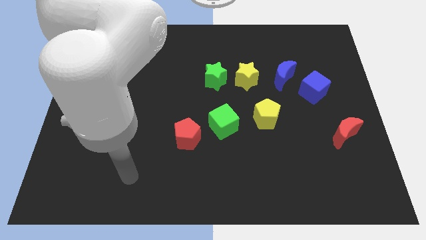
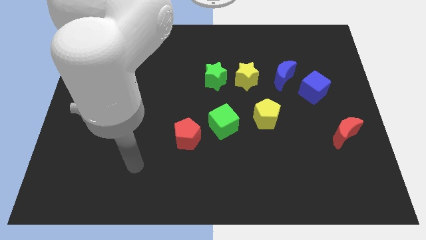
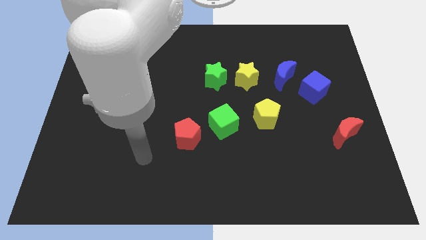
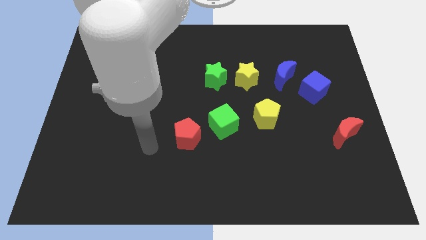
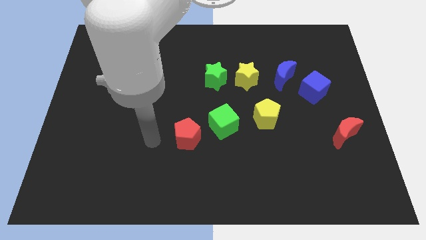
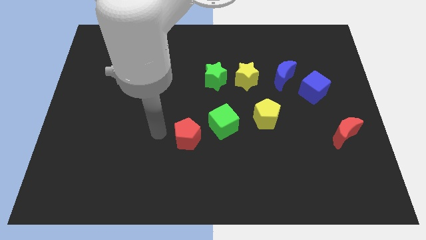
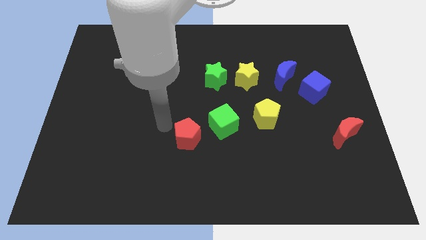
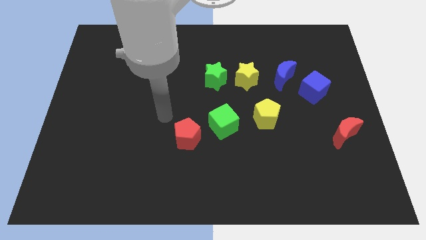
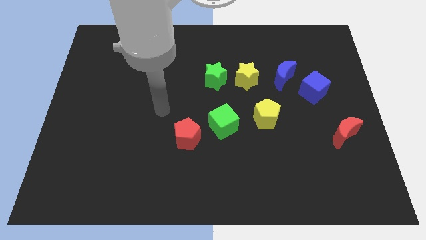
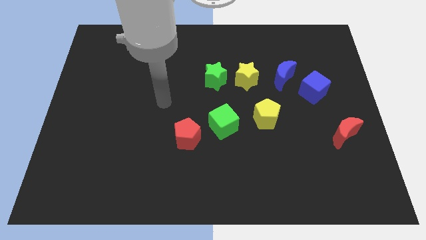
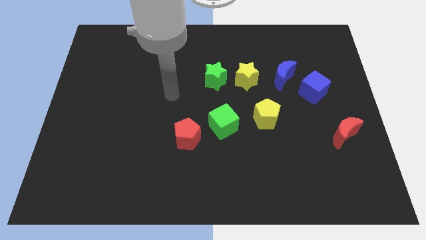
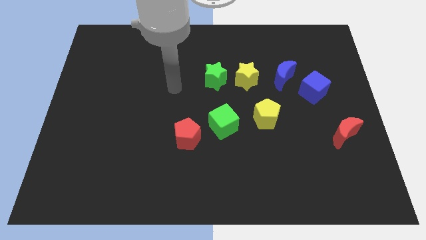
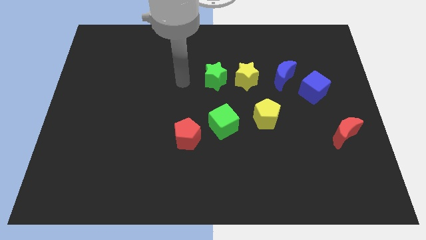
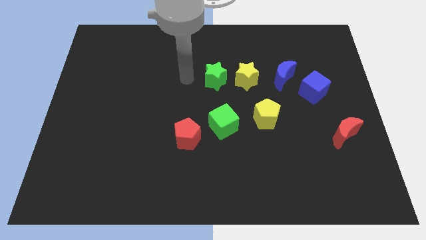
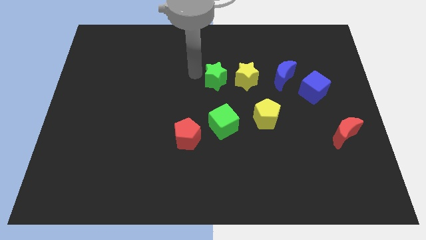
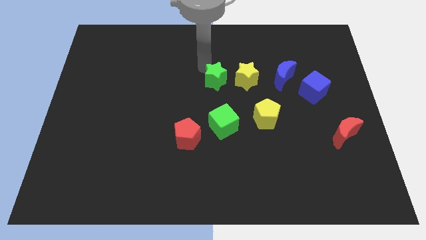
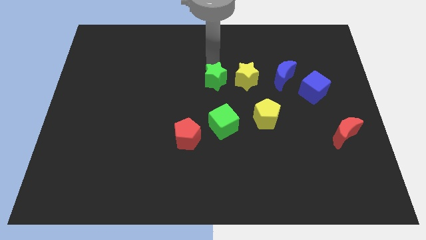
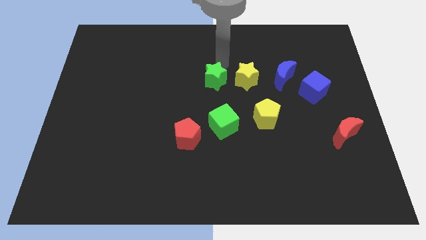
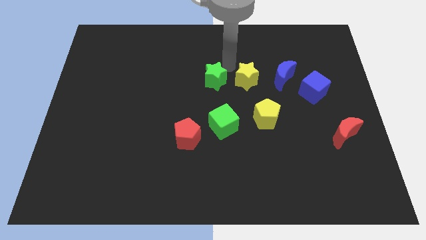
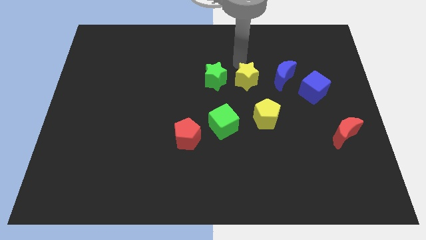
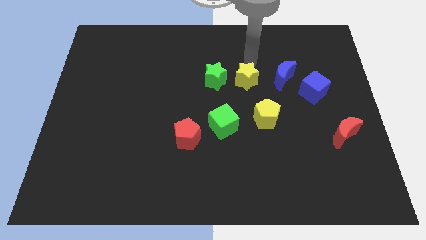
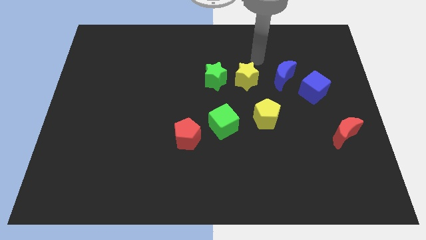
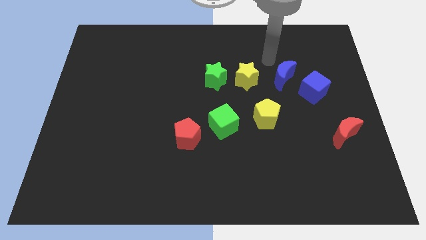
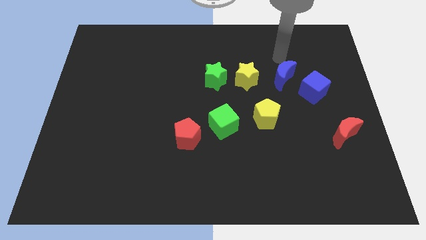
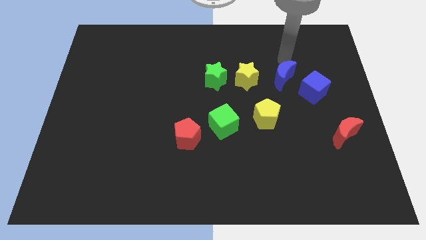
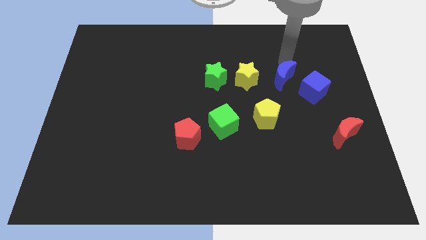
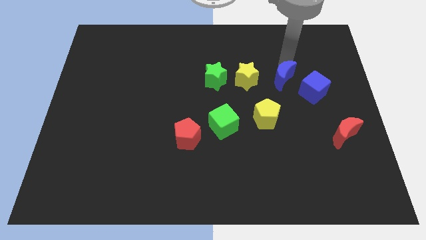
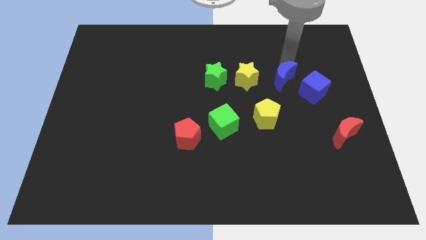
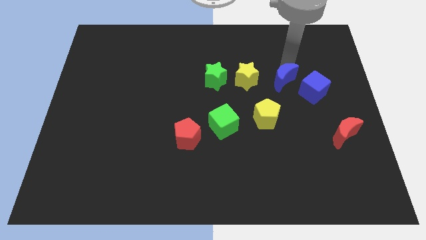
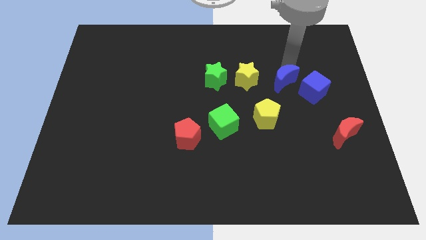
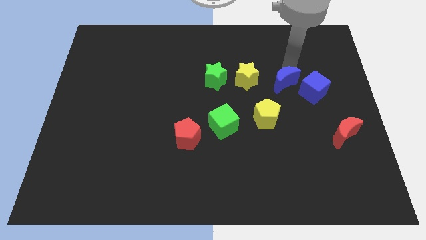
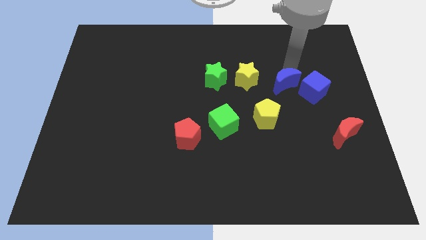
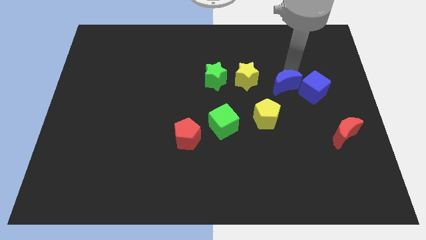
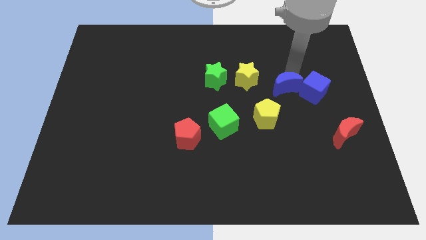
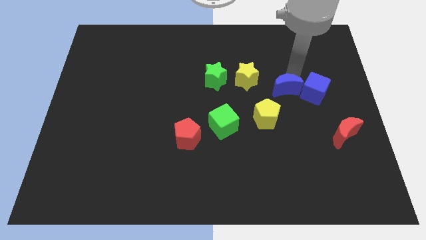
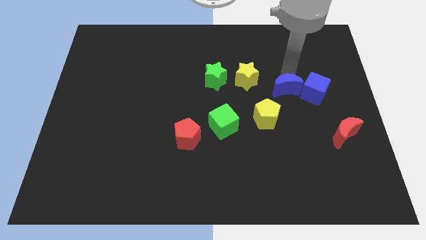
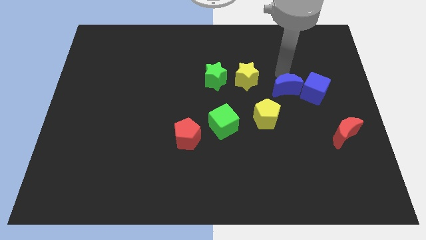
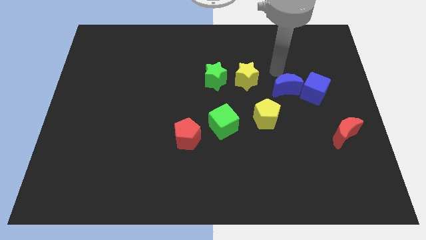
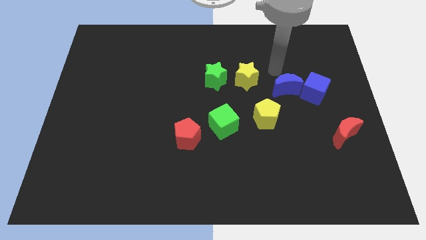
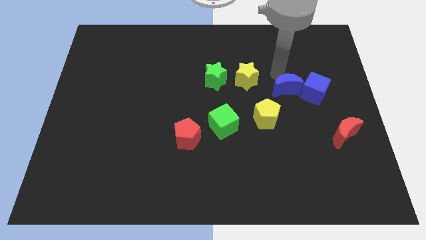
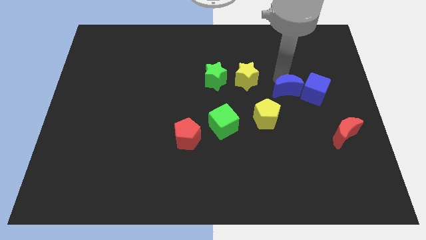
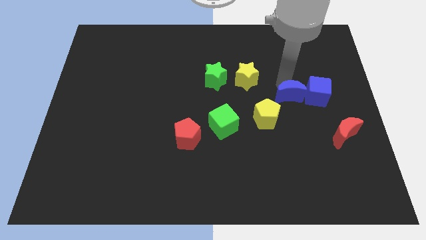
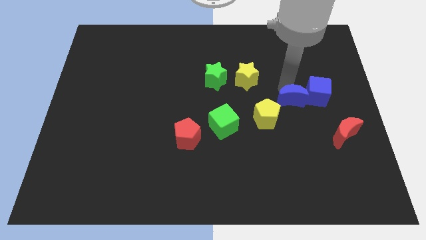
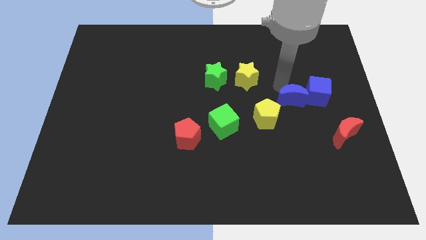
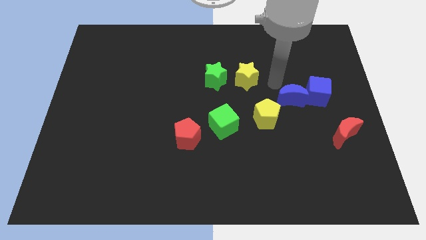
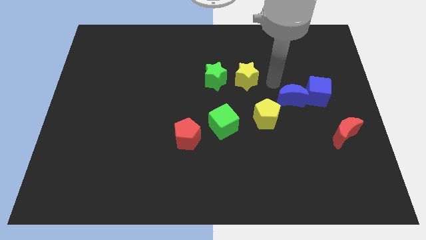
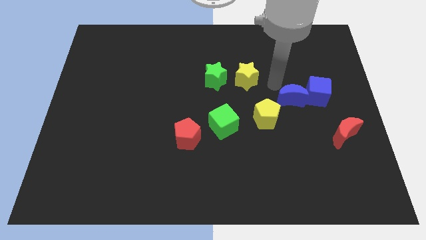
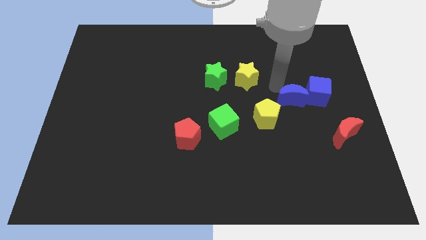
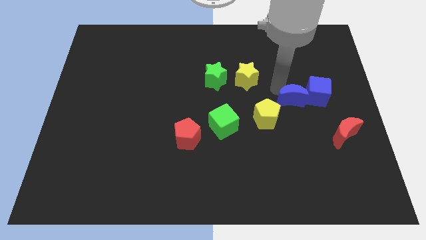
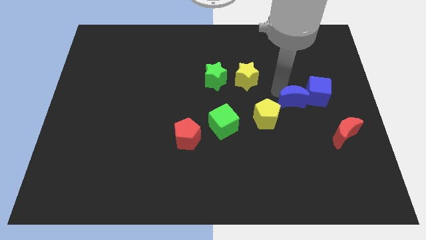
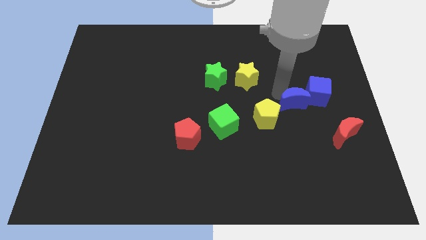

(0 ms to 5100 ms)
put the blue moon just right of the yellow pentagon

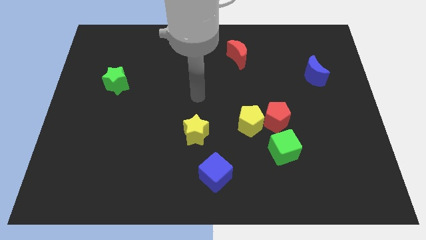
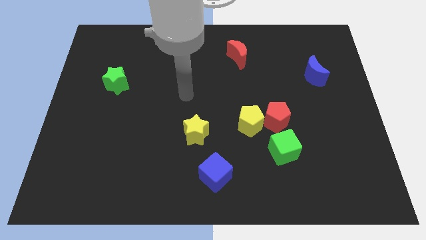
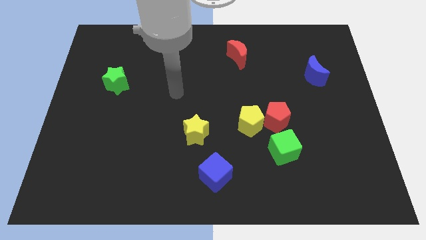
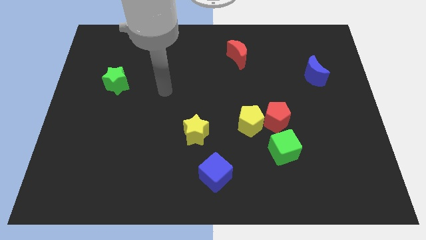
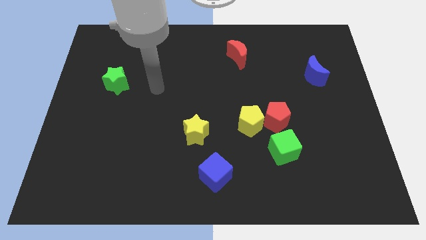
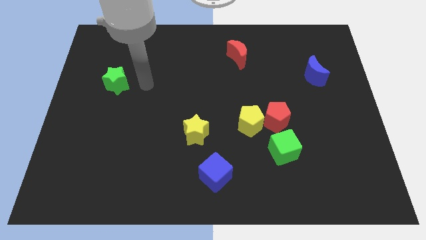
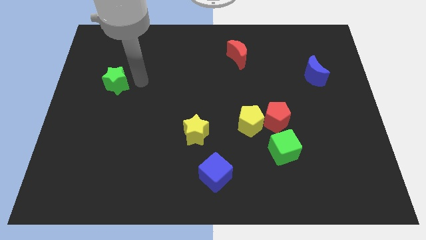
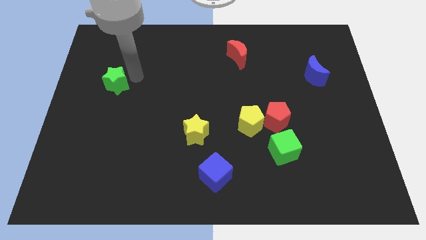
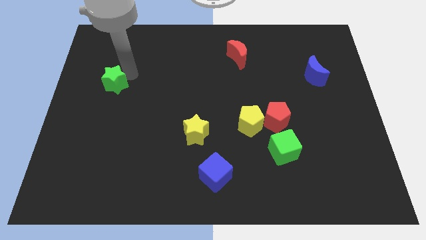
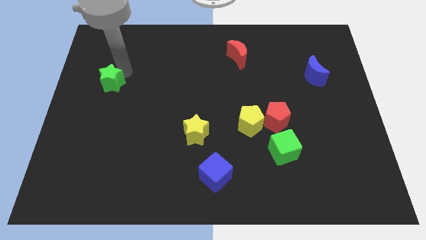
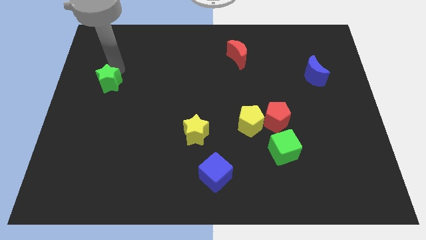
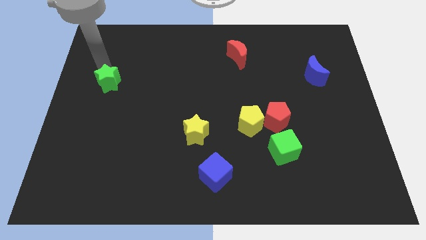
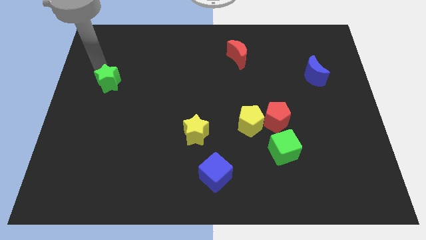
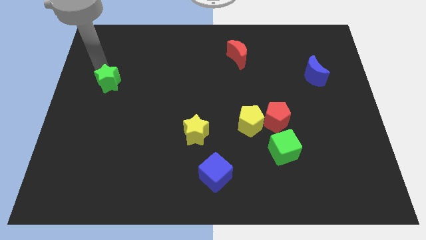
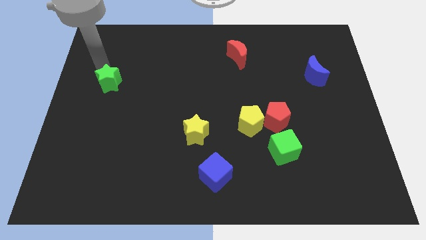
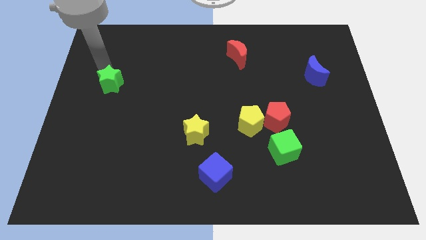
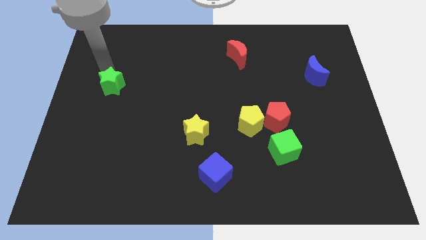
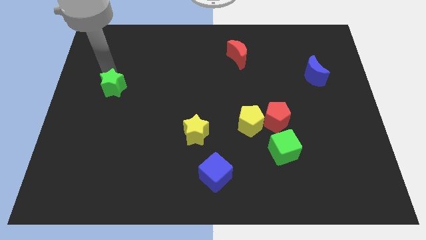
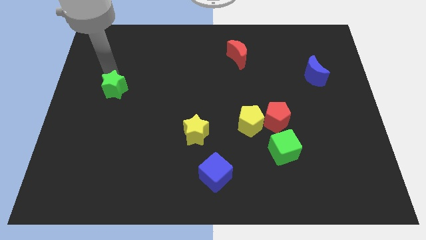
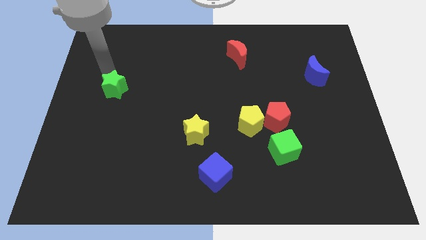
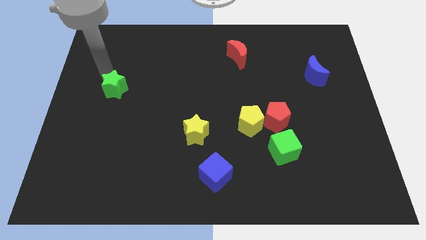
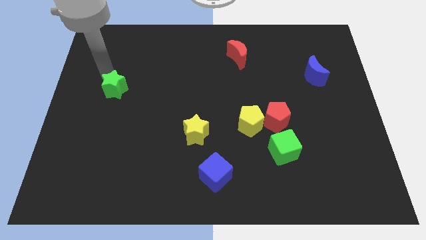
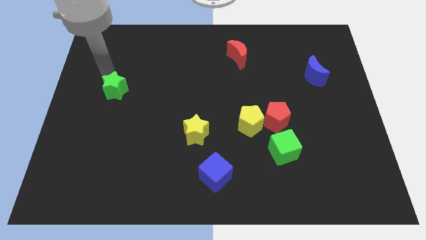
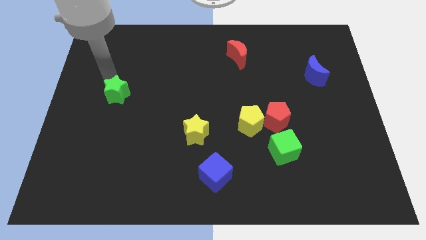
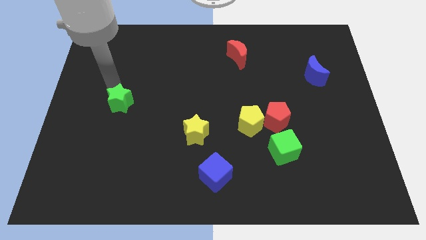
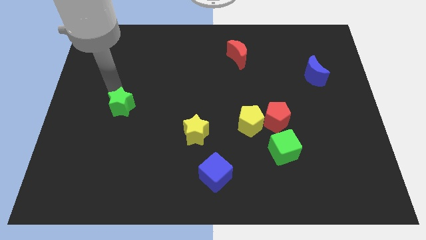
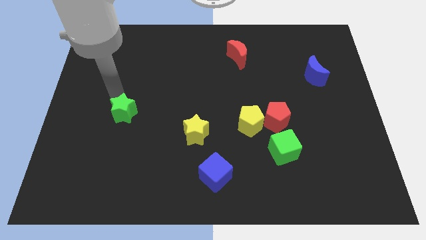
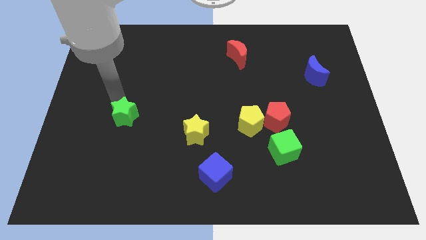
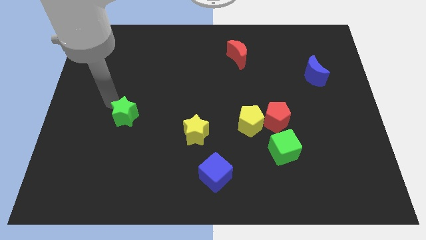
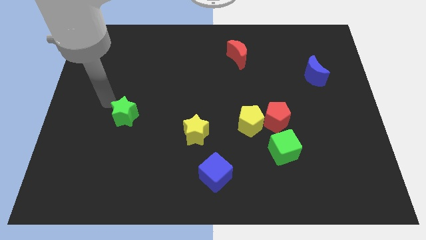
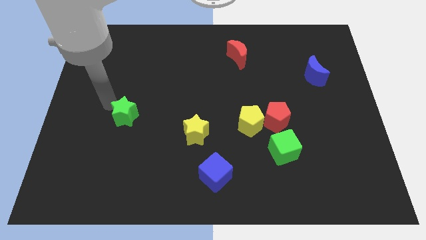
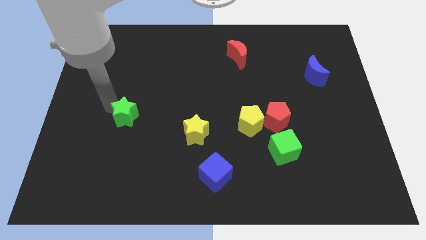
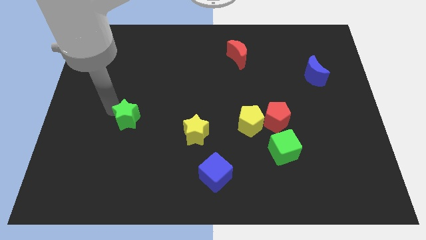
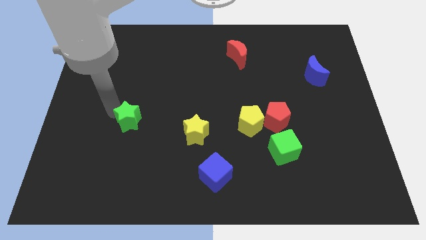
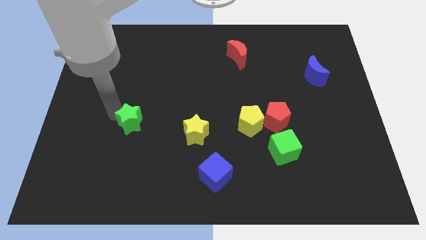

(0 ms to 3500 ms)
push the green star left of the yellow star
